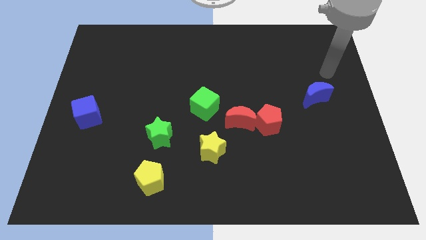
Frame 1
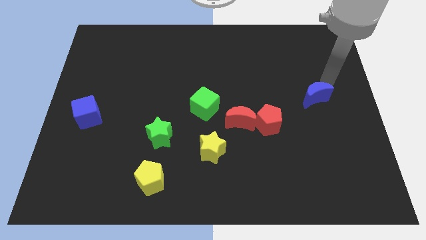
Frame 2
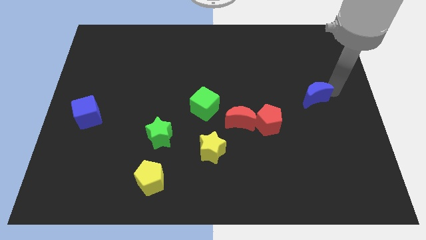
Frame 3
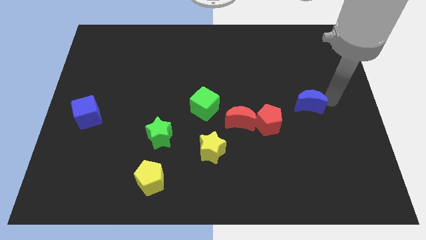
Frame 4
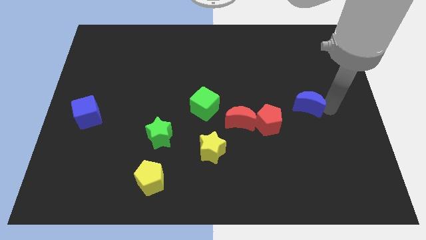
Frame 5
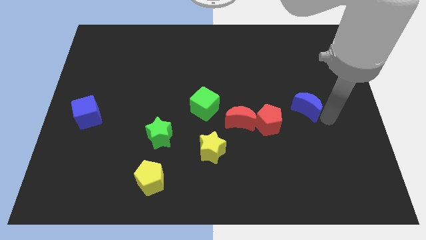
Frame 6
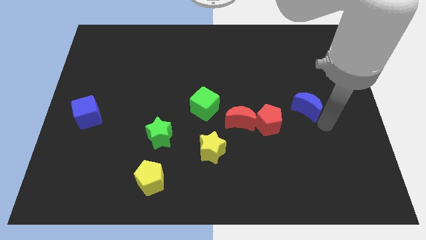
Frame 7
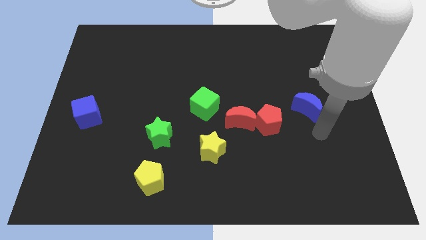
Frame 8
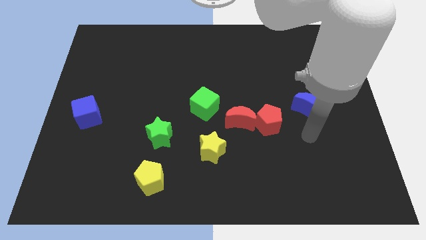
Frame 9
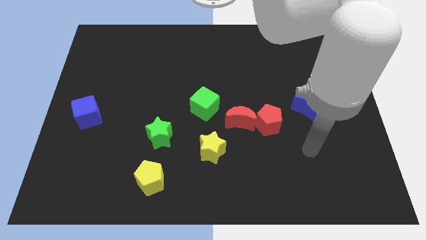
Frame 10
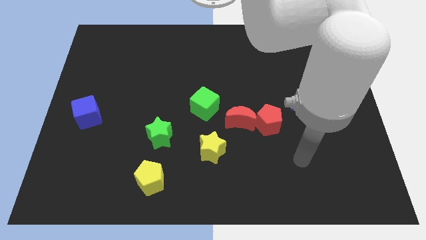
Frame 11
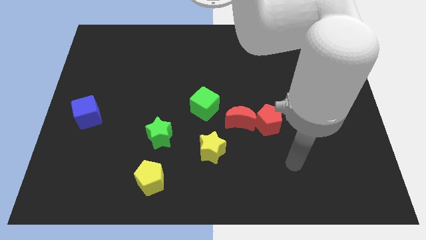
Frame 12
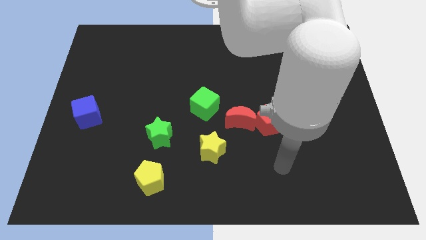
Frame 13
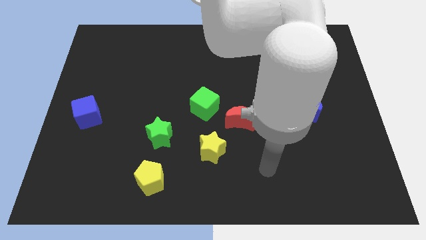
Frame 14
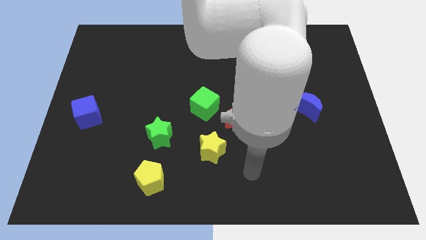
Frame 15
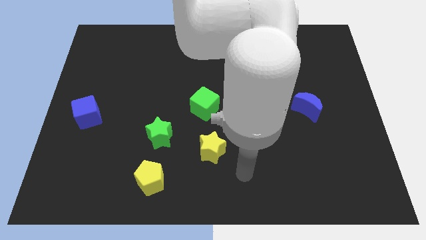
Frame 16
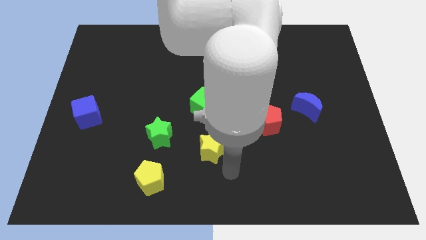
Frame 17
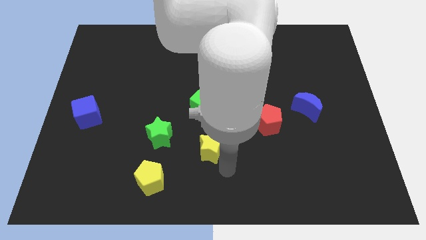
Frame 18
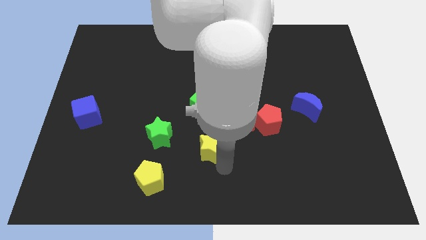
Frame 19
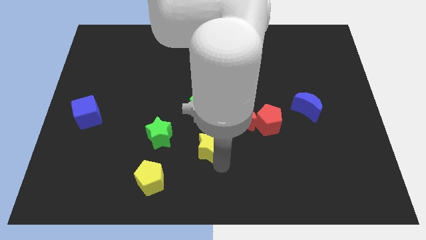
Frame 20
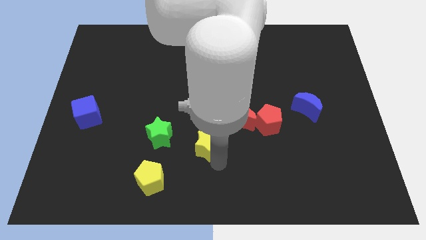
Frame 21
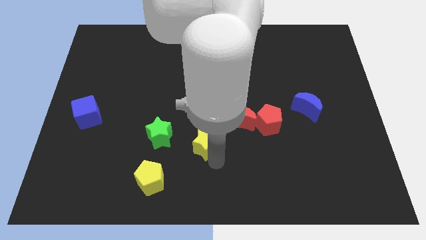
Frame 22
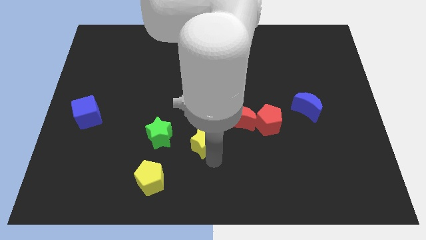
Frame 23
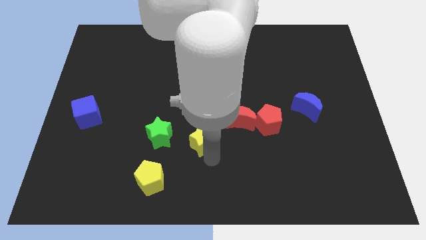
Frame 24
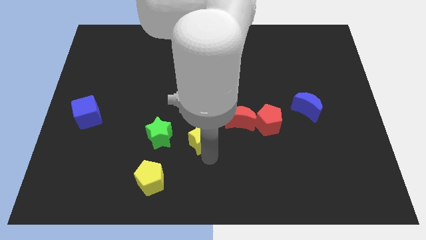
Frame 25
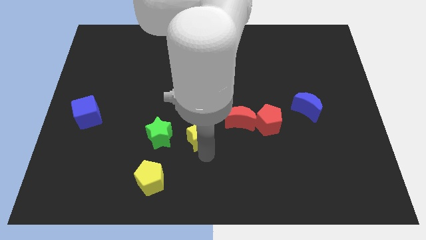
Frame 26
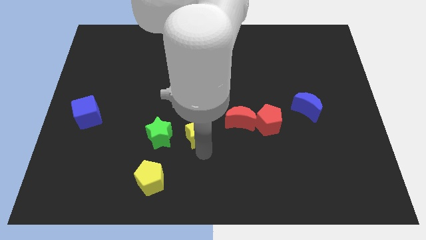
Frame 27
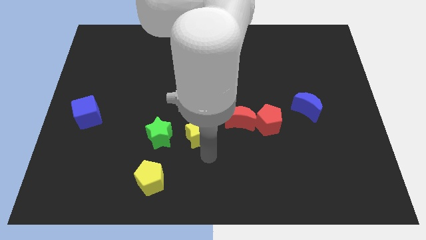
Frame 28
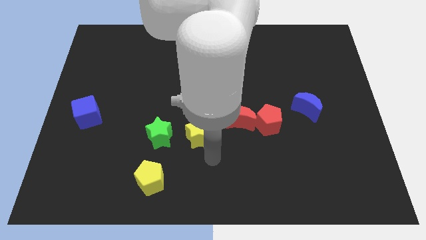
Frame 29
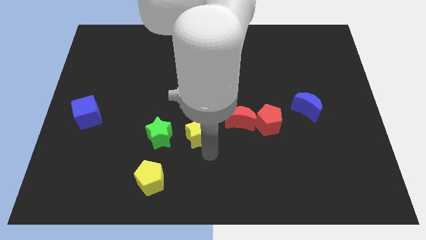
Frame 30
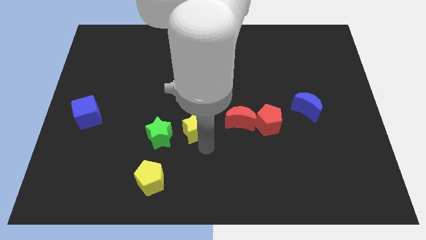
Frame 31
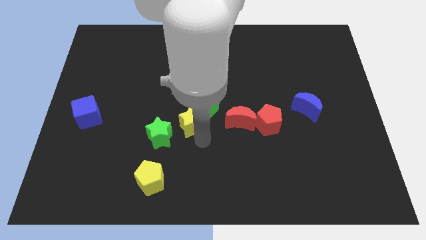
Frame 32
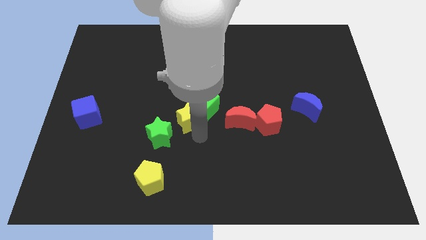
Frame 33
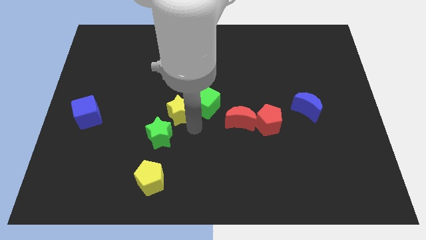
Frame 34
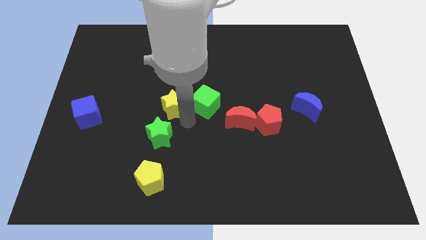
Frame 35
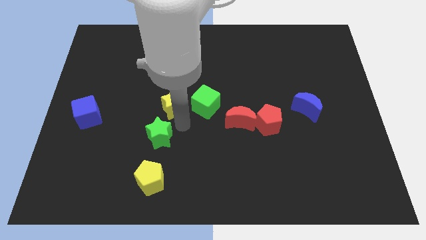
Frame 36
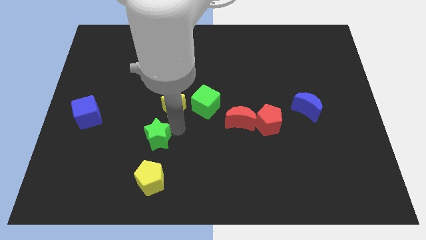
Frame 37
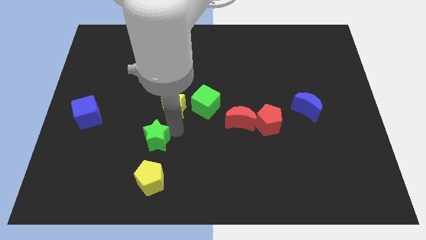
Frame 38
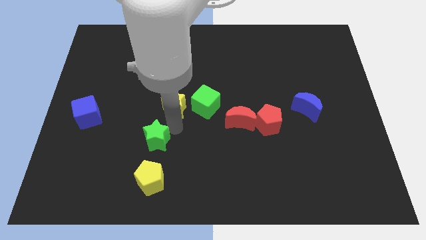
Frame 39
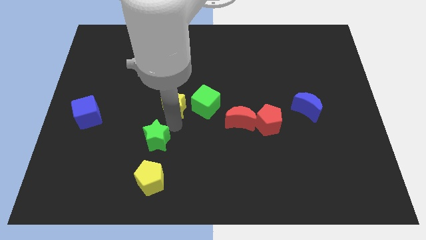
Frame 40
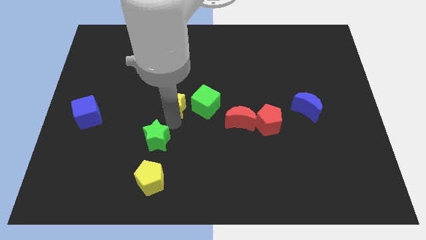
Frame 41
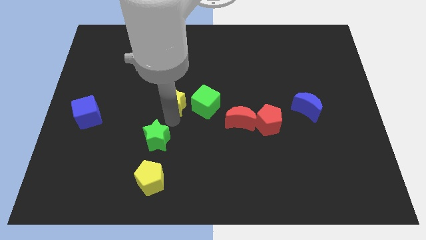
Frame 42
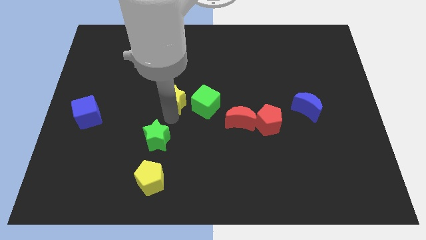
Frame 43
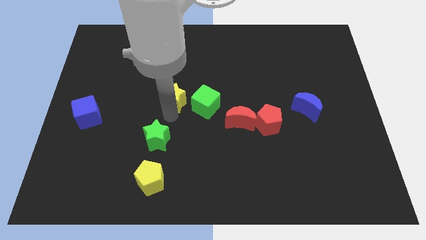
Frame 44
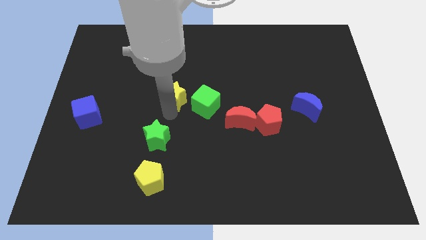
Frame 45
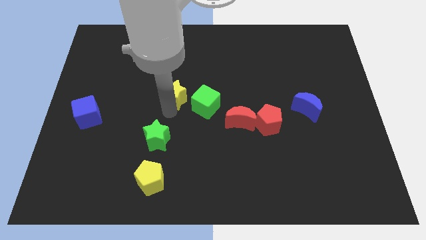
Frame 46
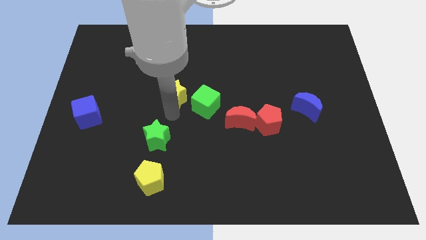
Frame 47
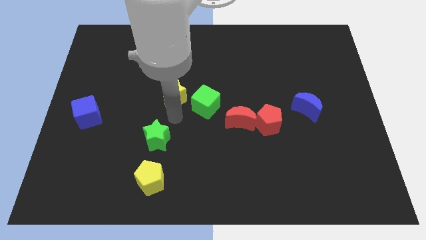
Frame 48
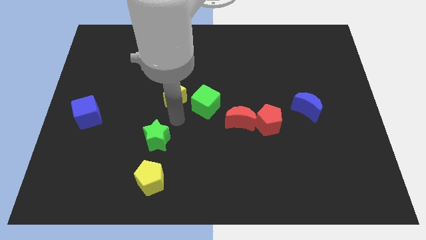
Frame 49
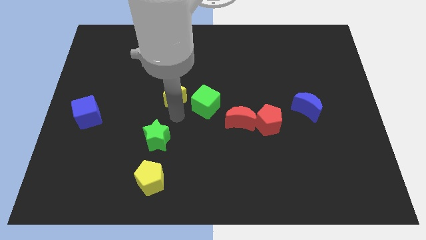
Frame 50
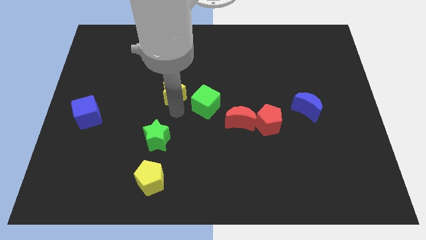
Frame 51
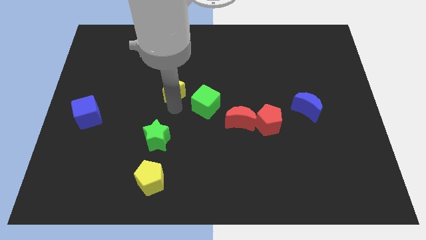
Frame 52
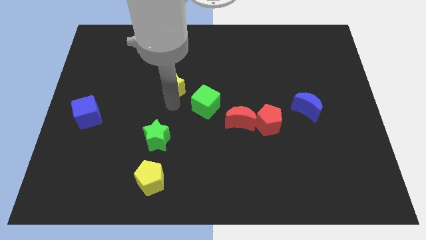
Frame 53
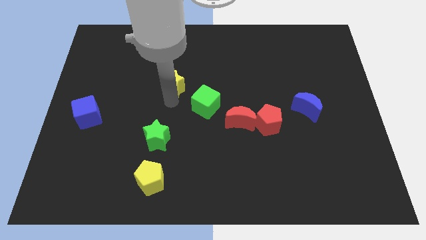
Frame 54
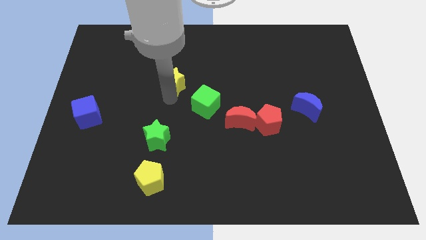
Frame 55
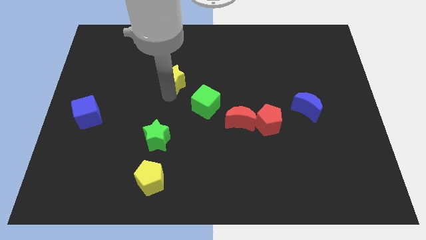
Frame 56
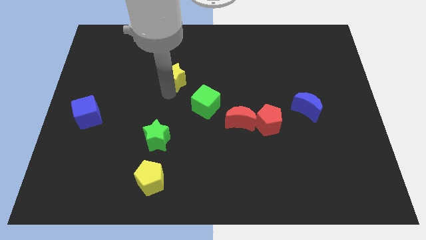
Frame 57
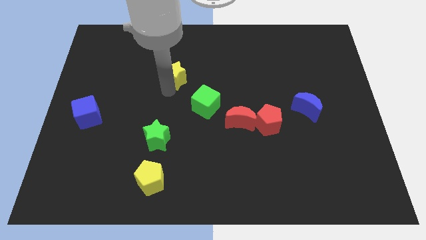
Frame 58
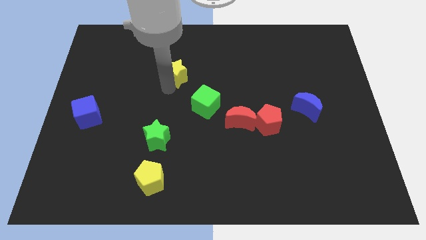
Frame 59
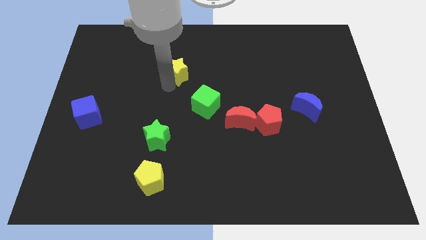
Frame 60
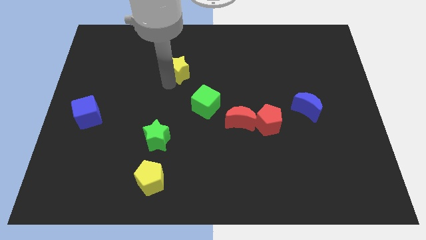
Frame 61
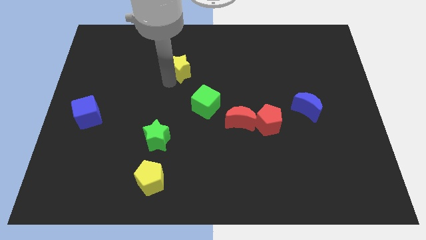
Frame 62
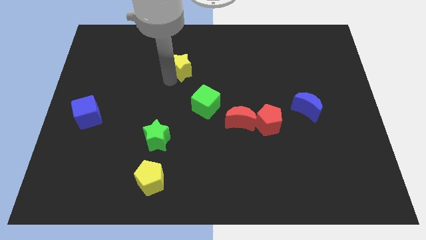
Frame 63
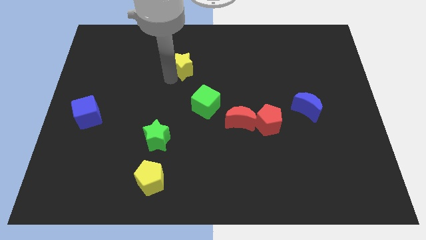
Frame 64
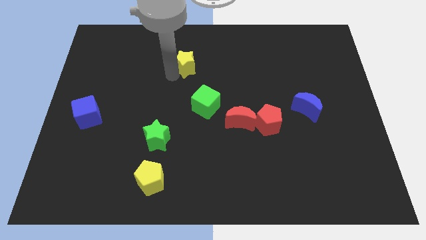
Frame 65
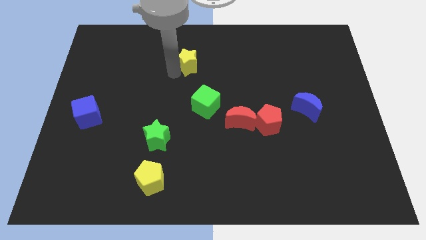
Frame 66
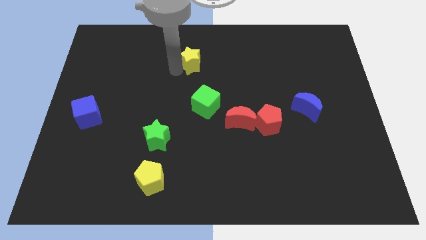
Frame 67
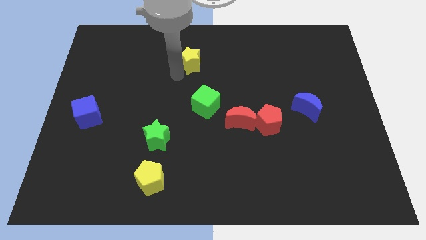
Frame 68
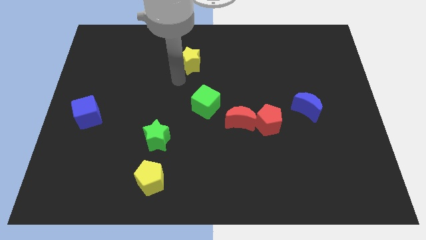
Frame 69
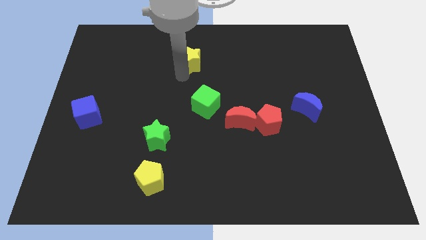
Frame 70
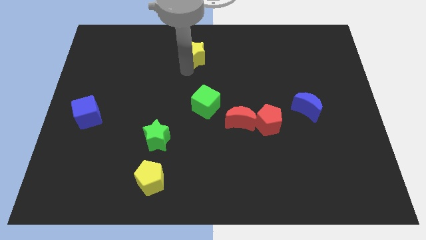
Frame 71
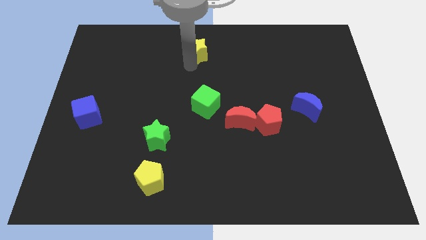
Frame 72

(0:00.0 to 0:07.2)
slide the yellow star to the top
